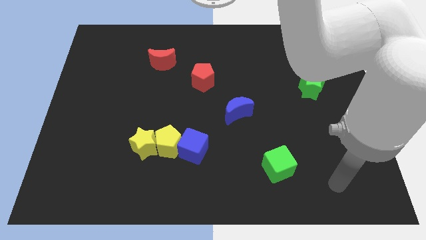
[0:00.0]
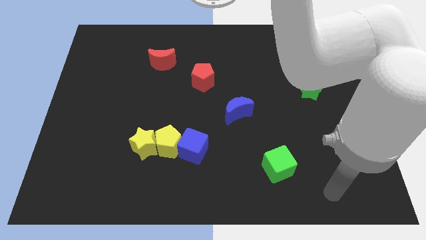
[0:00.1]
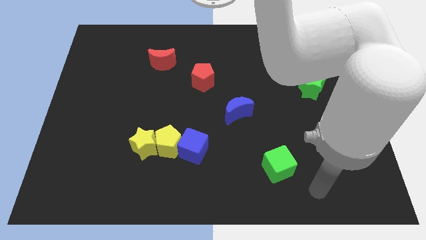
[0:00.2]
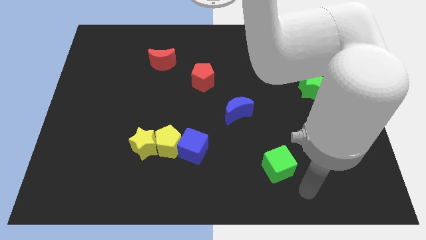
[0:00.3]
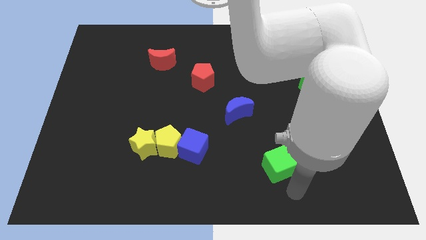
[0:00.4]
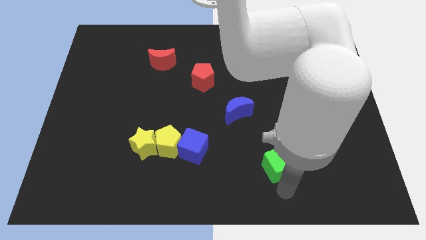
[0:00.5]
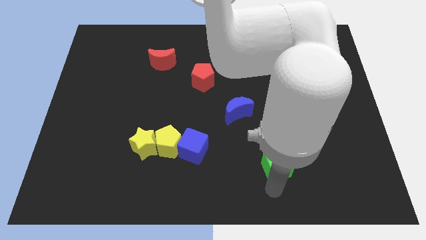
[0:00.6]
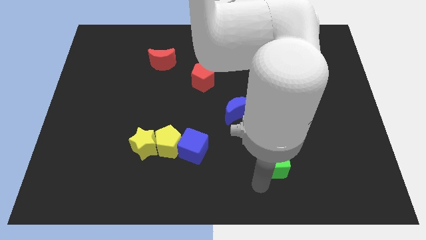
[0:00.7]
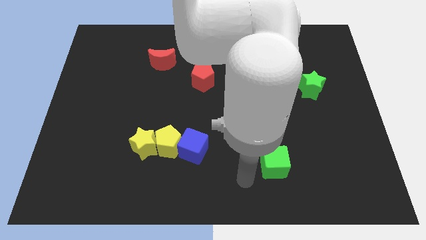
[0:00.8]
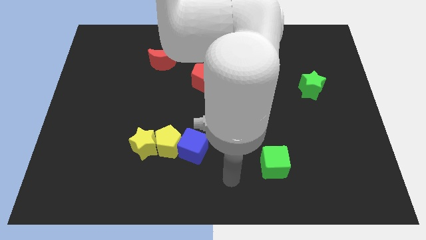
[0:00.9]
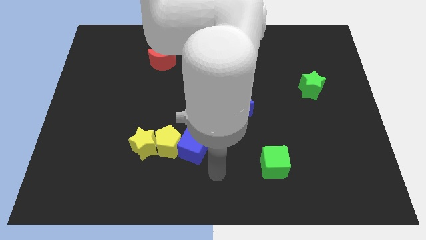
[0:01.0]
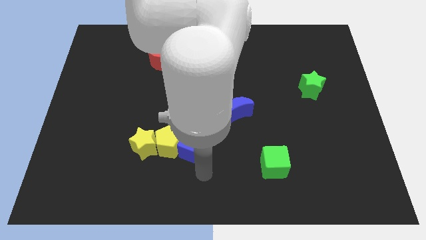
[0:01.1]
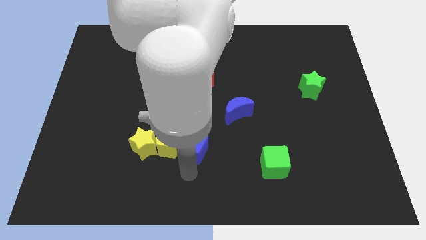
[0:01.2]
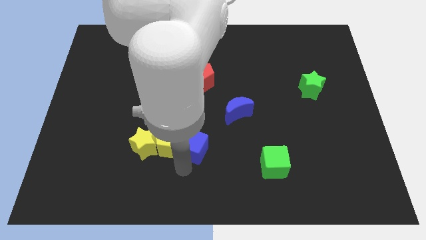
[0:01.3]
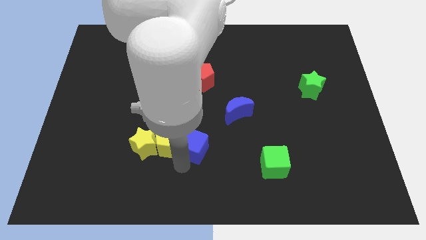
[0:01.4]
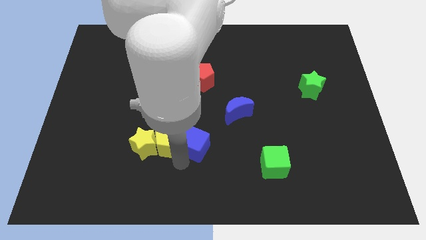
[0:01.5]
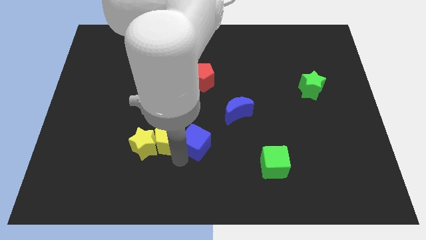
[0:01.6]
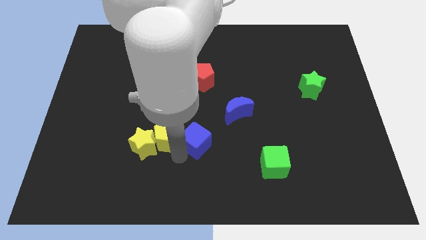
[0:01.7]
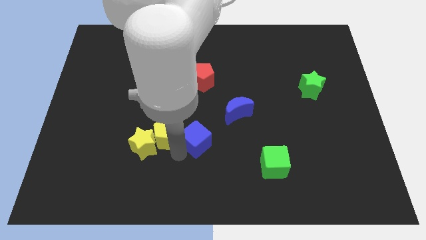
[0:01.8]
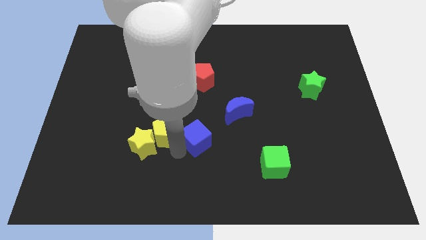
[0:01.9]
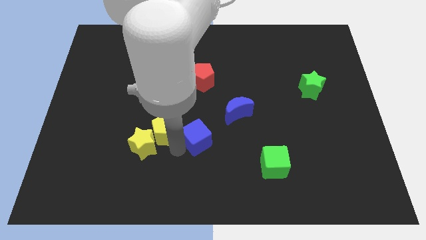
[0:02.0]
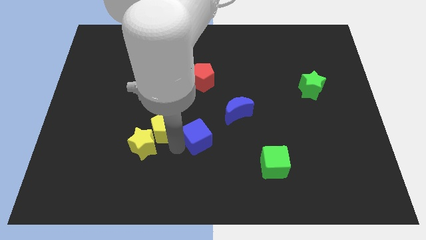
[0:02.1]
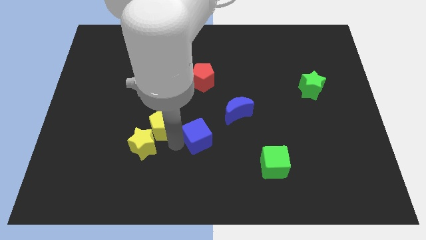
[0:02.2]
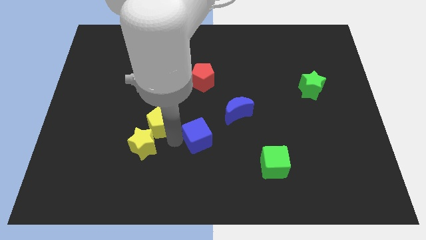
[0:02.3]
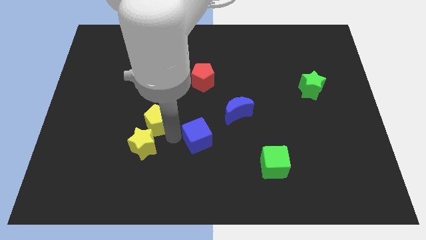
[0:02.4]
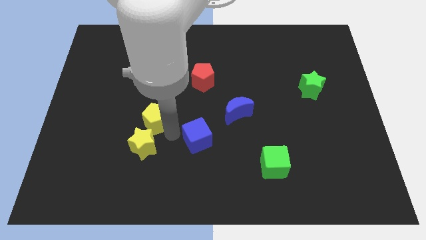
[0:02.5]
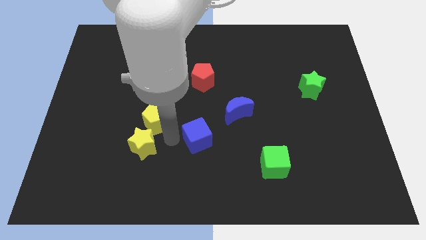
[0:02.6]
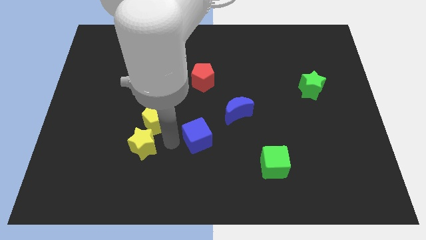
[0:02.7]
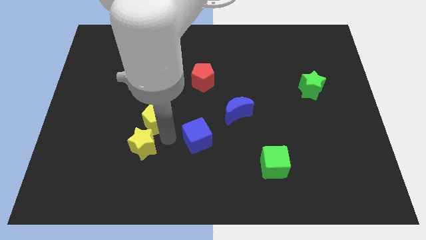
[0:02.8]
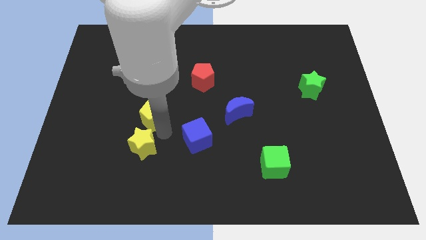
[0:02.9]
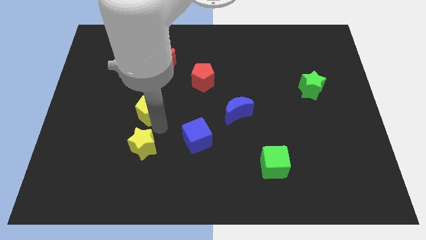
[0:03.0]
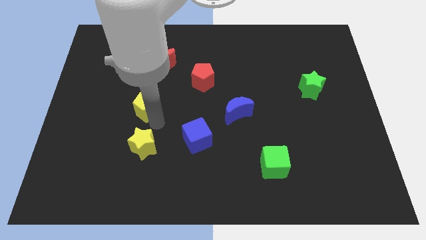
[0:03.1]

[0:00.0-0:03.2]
pull the yellow pentagon apart from the yellow star and blue cube

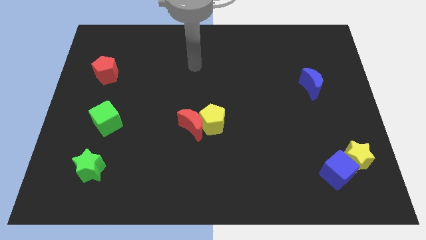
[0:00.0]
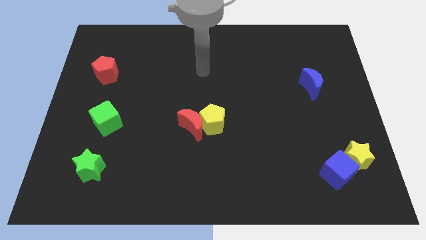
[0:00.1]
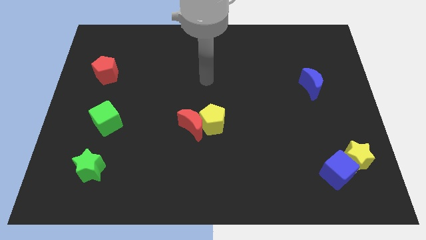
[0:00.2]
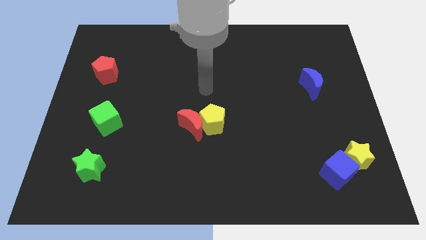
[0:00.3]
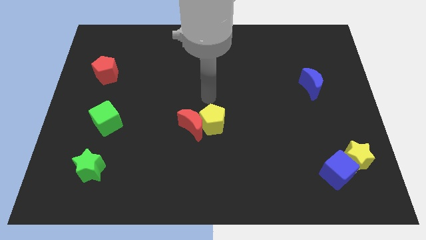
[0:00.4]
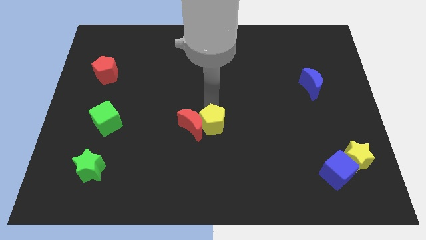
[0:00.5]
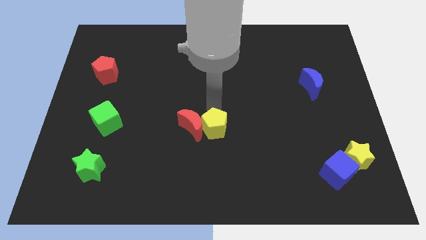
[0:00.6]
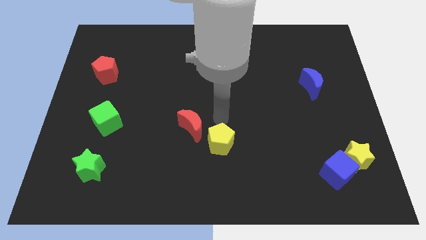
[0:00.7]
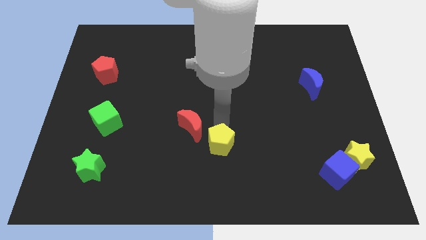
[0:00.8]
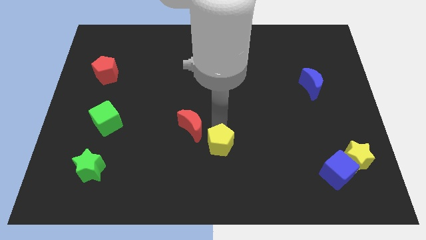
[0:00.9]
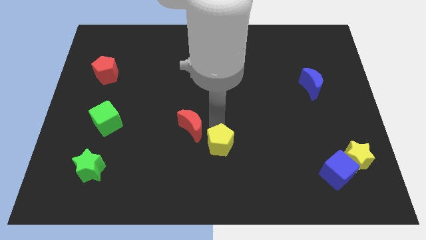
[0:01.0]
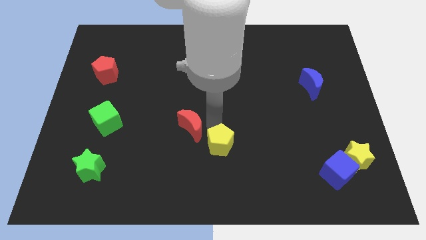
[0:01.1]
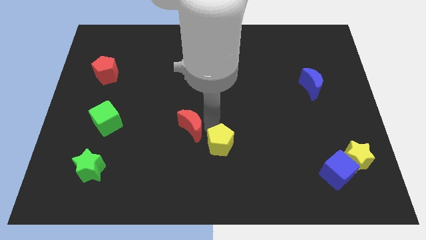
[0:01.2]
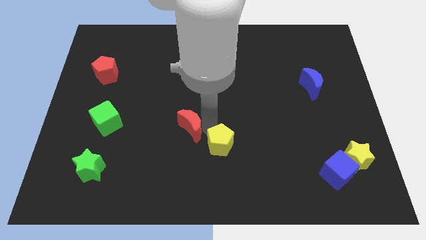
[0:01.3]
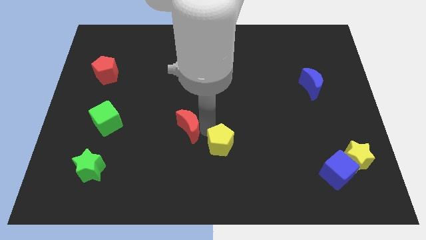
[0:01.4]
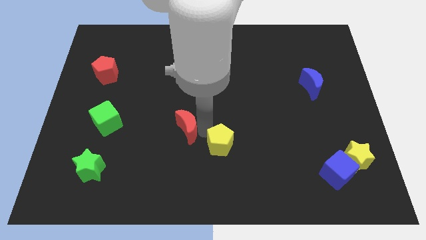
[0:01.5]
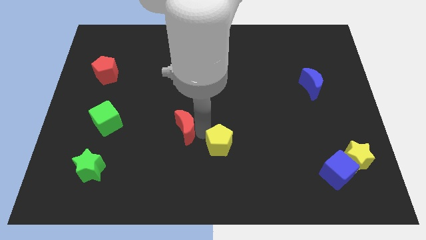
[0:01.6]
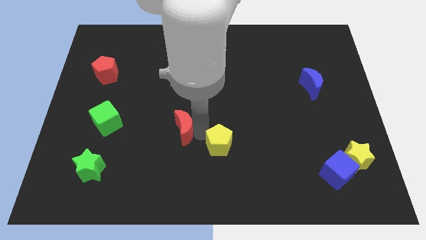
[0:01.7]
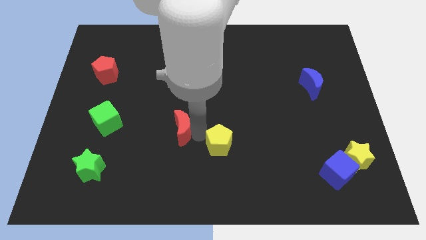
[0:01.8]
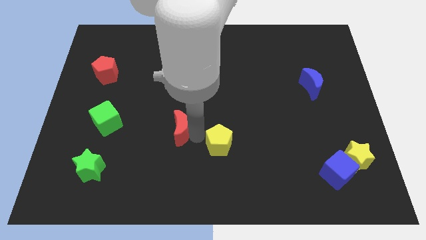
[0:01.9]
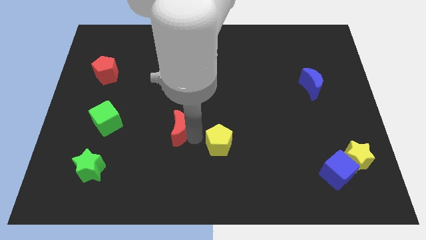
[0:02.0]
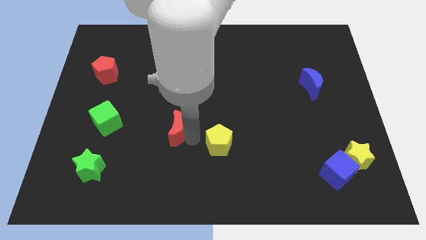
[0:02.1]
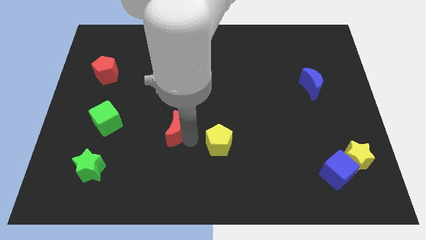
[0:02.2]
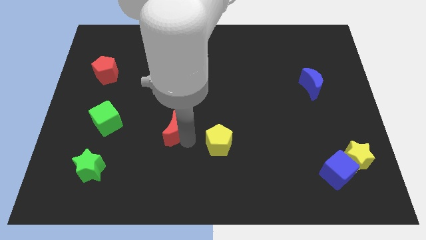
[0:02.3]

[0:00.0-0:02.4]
pull the red moon apart from the yellow pentagon

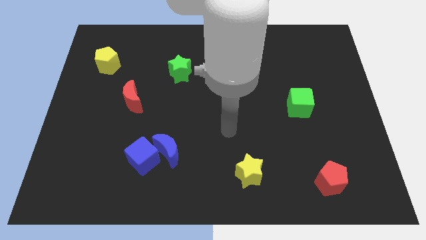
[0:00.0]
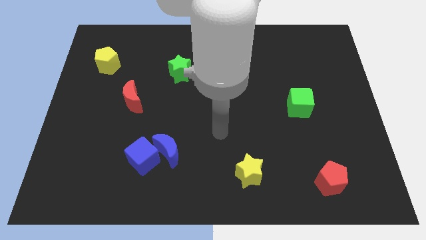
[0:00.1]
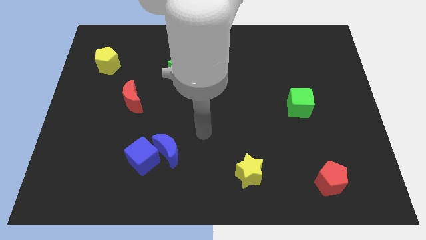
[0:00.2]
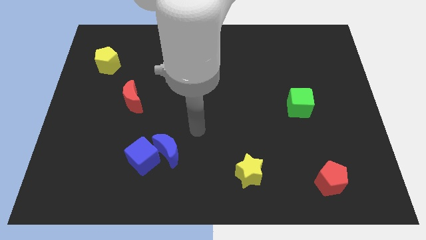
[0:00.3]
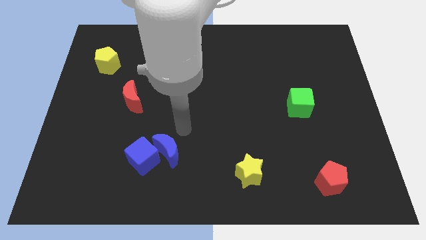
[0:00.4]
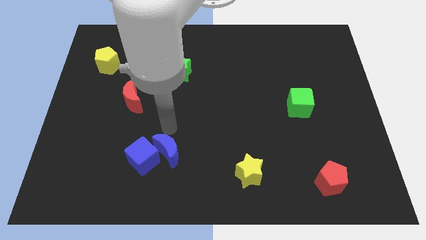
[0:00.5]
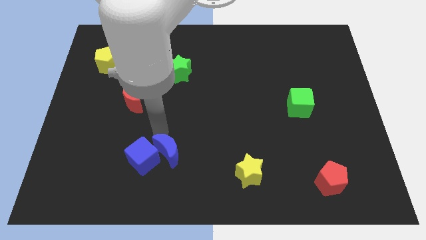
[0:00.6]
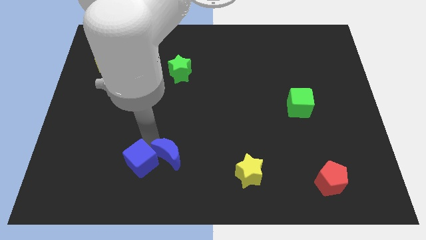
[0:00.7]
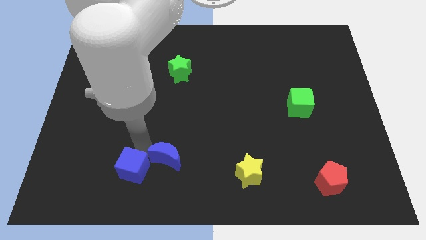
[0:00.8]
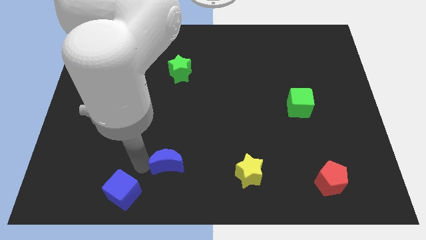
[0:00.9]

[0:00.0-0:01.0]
pull the blue moon apart from the blue cube

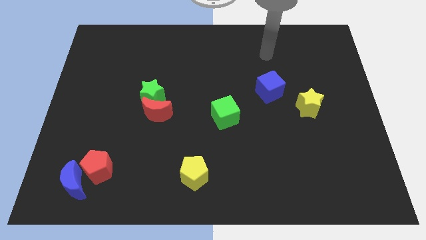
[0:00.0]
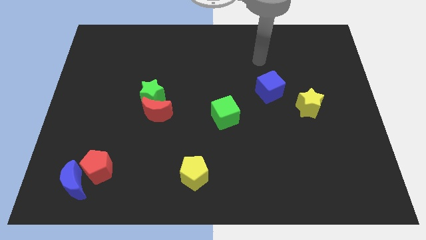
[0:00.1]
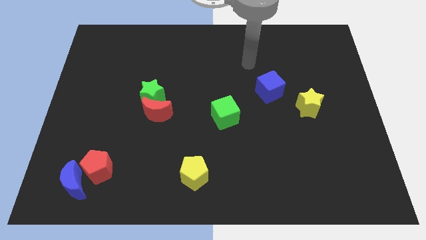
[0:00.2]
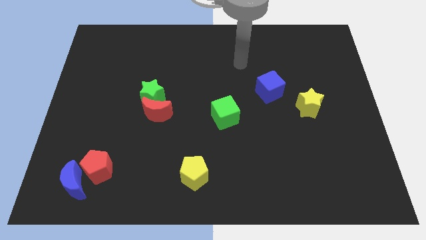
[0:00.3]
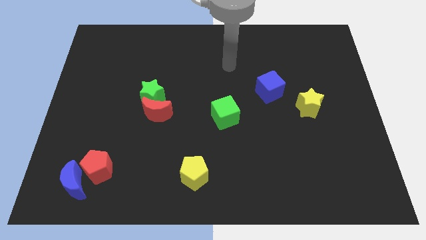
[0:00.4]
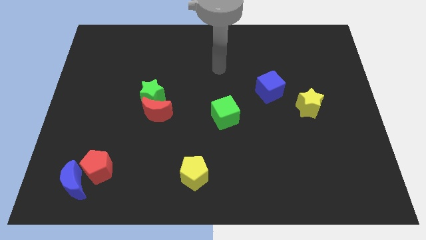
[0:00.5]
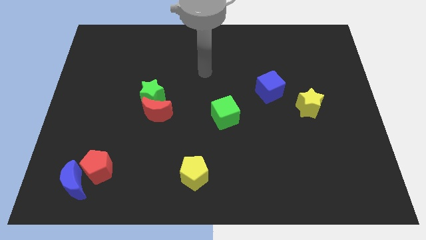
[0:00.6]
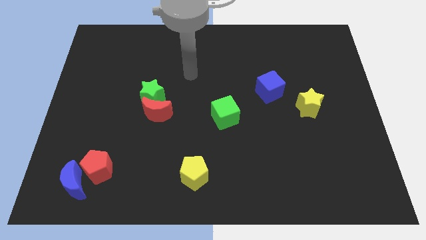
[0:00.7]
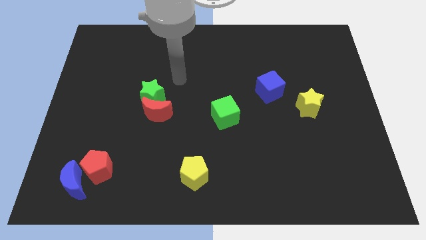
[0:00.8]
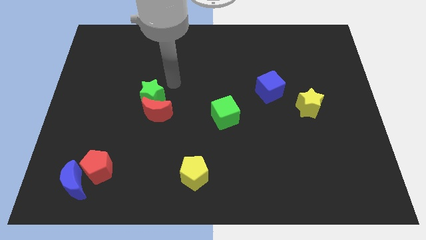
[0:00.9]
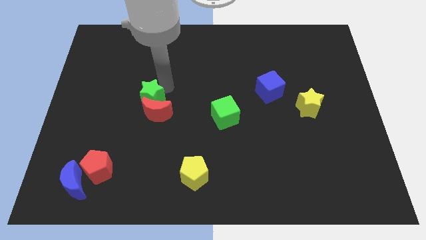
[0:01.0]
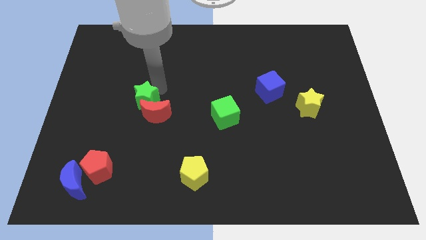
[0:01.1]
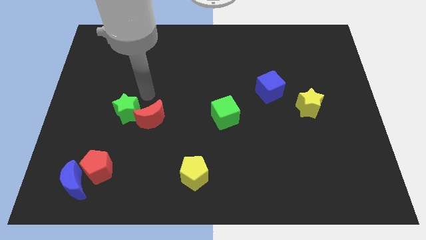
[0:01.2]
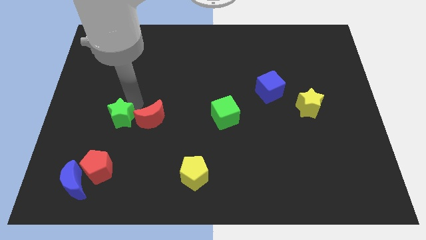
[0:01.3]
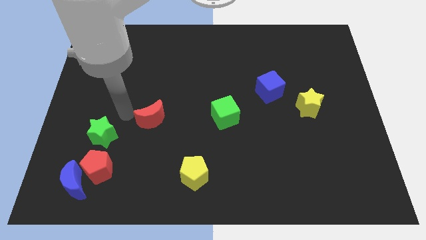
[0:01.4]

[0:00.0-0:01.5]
separate the red moon from the green star

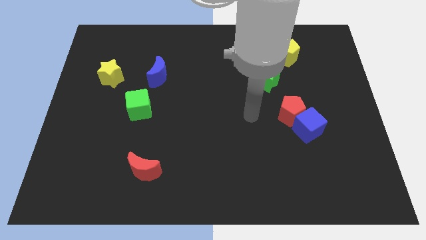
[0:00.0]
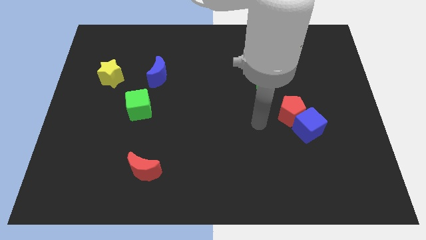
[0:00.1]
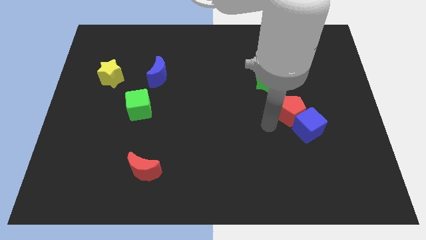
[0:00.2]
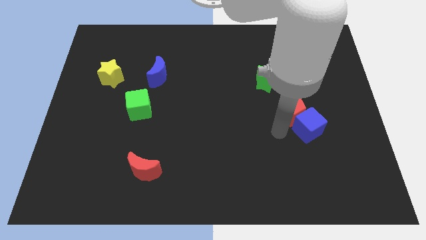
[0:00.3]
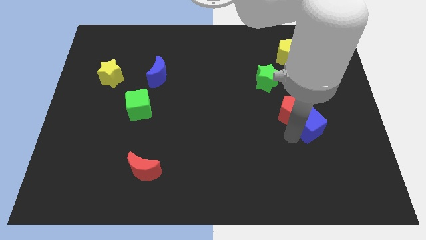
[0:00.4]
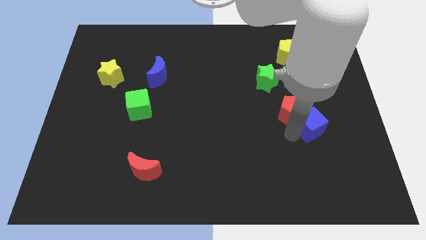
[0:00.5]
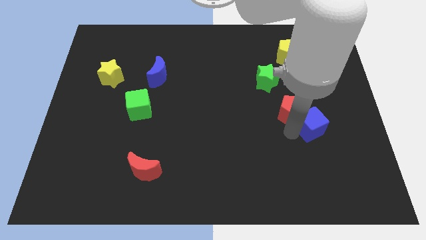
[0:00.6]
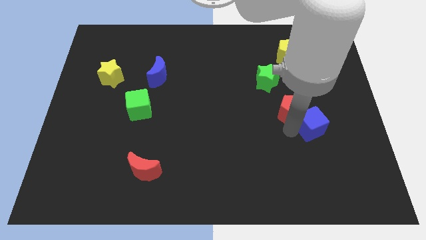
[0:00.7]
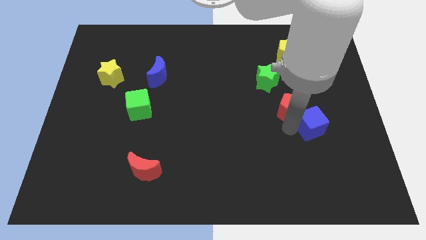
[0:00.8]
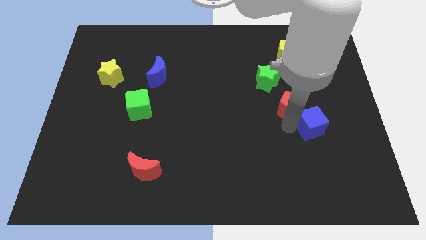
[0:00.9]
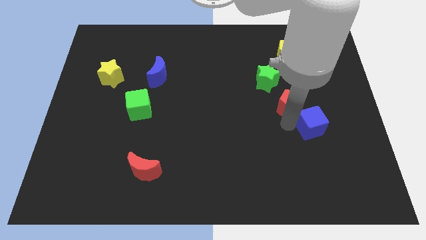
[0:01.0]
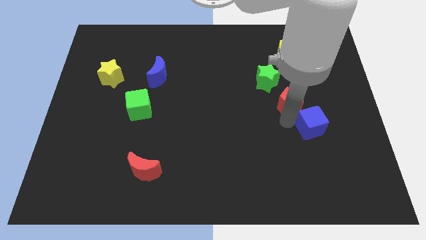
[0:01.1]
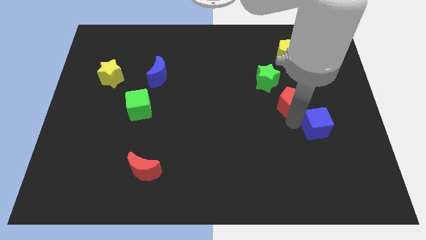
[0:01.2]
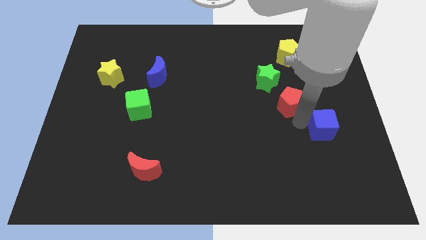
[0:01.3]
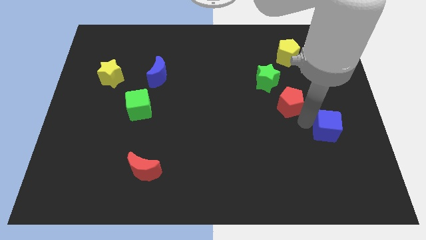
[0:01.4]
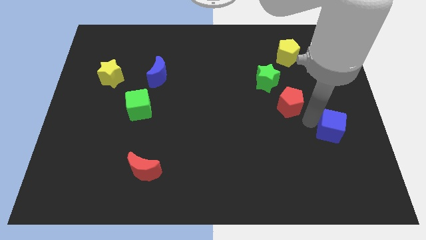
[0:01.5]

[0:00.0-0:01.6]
move the red pentagon away from the blue cube
